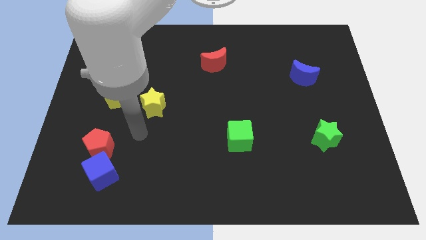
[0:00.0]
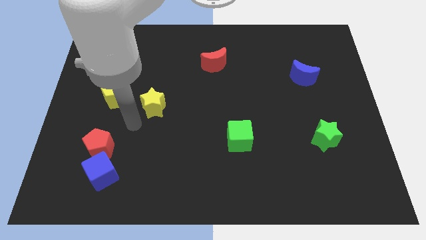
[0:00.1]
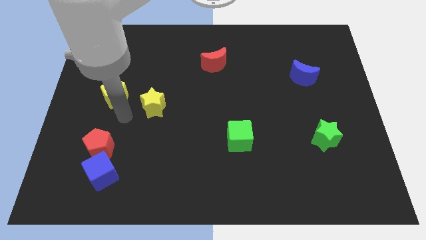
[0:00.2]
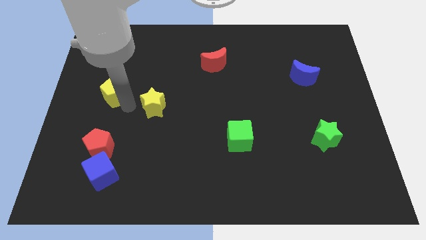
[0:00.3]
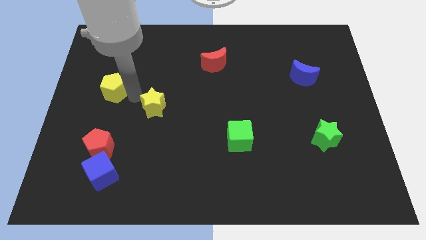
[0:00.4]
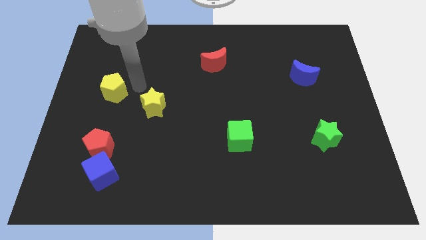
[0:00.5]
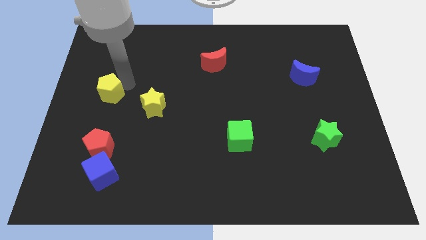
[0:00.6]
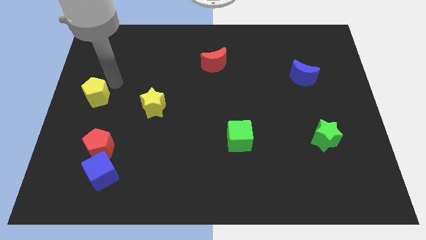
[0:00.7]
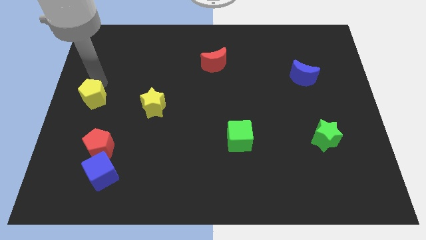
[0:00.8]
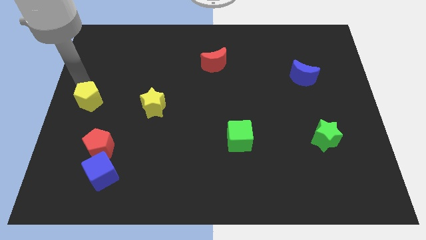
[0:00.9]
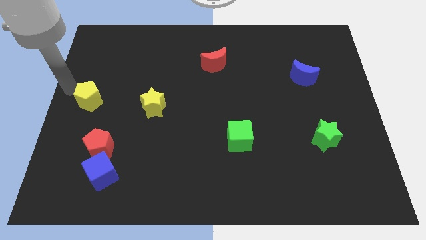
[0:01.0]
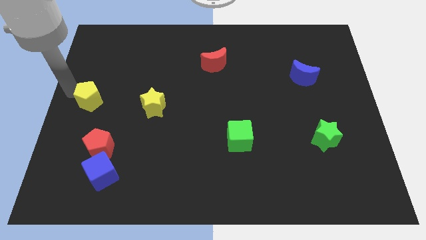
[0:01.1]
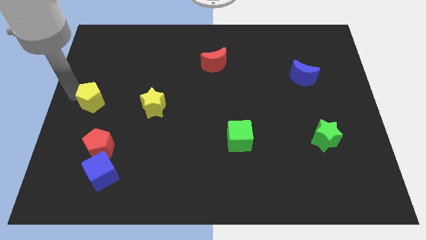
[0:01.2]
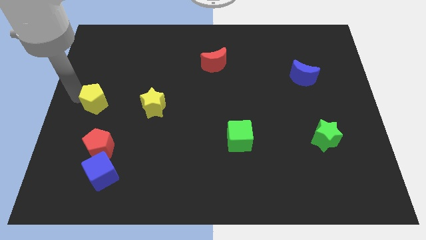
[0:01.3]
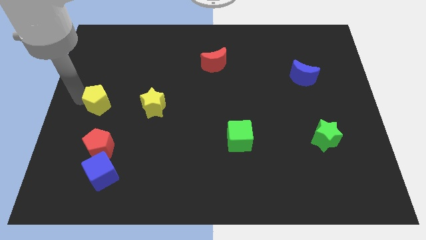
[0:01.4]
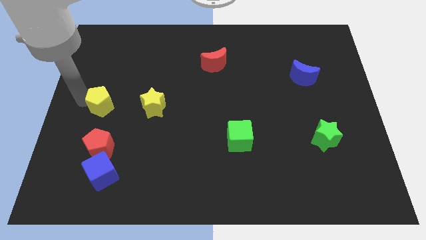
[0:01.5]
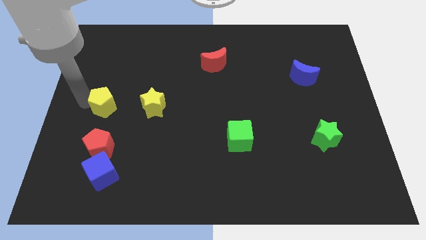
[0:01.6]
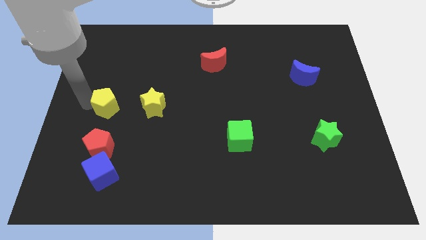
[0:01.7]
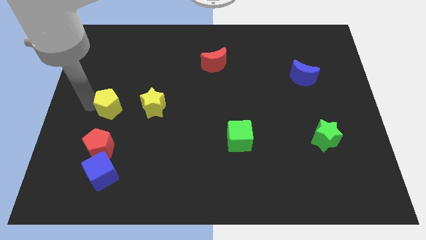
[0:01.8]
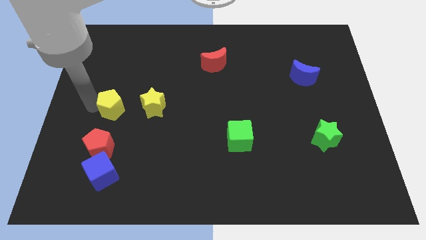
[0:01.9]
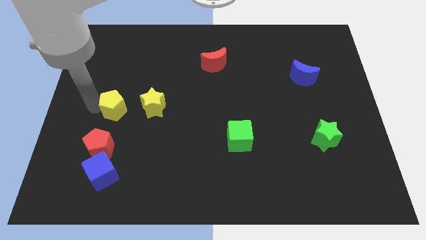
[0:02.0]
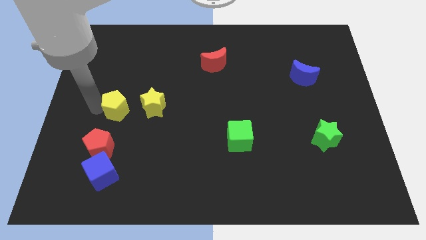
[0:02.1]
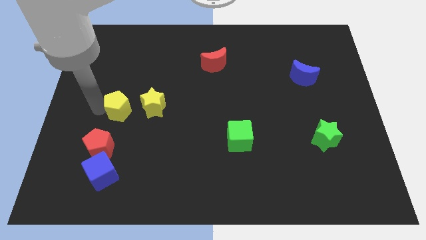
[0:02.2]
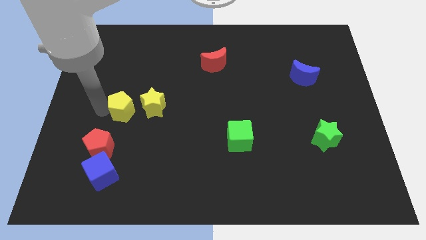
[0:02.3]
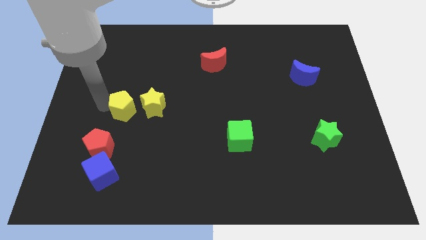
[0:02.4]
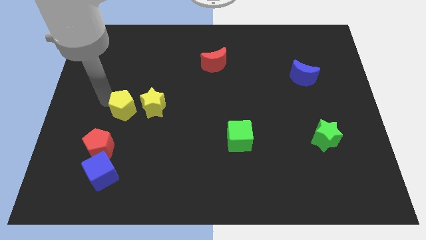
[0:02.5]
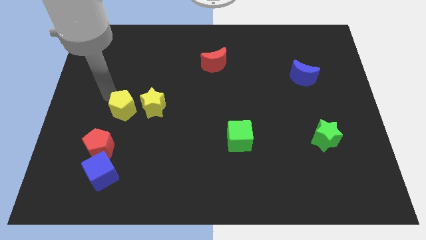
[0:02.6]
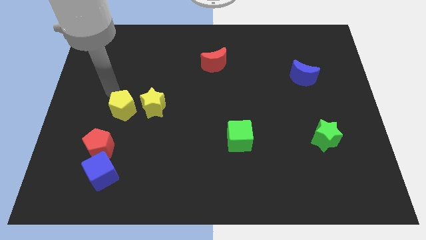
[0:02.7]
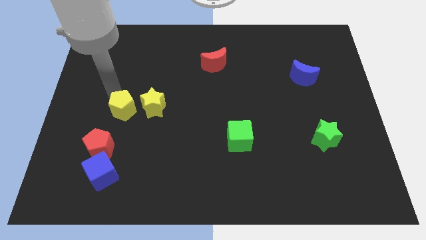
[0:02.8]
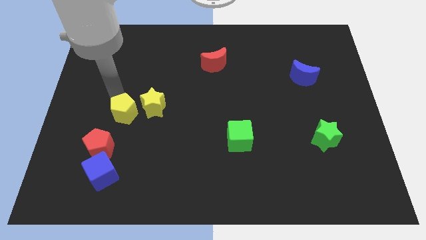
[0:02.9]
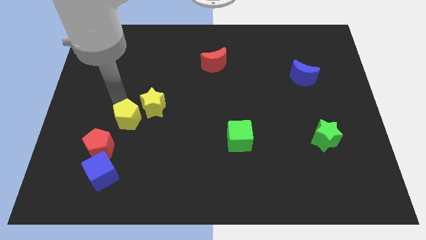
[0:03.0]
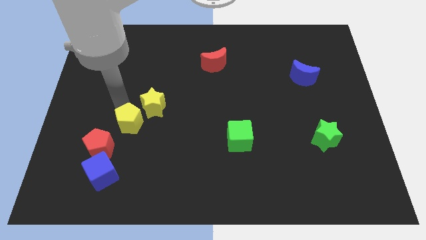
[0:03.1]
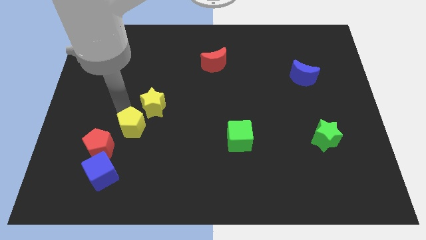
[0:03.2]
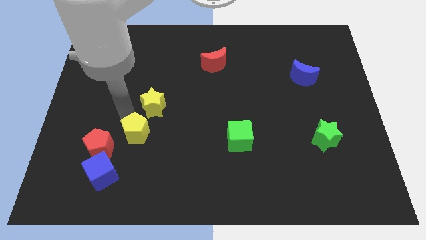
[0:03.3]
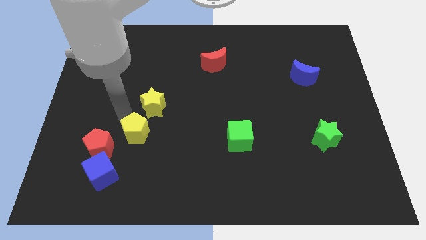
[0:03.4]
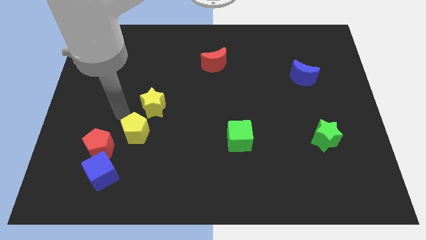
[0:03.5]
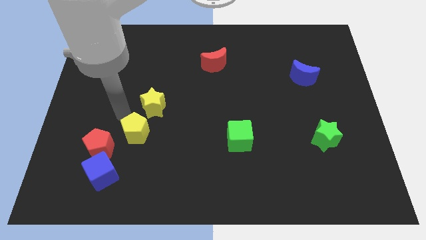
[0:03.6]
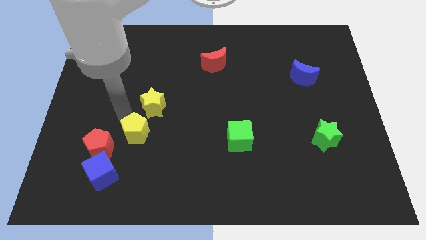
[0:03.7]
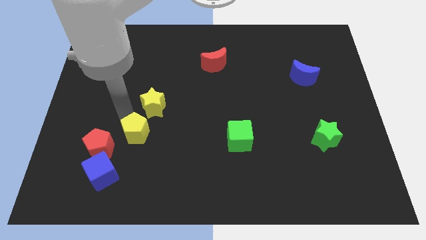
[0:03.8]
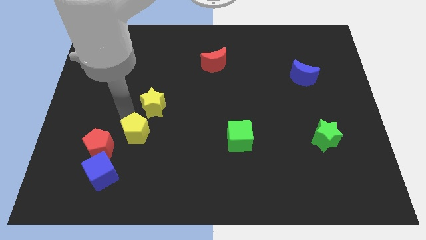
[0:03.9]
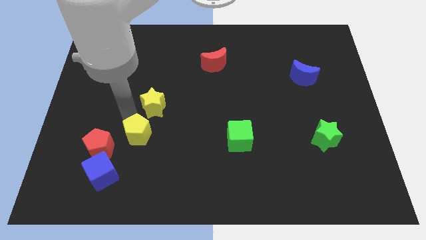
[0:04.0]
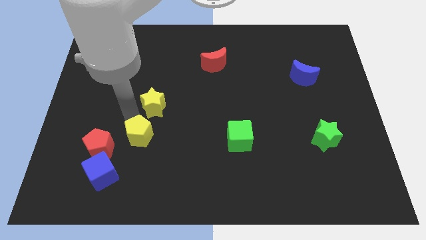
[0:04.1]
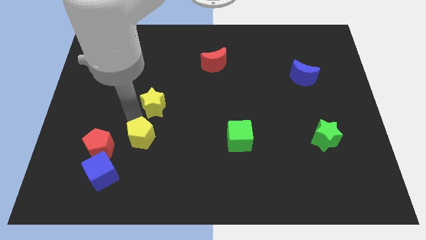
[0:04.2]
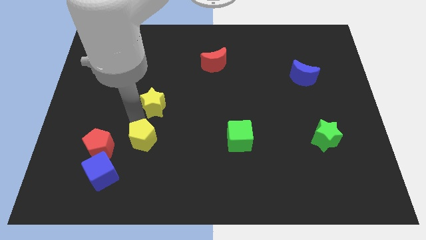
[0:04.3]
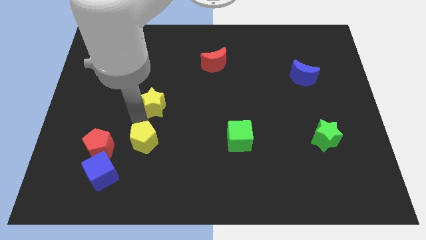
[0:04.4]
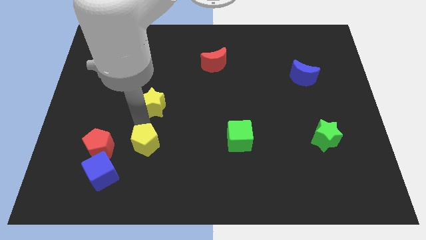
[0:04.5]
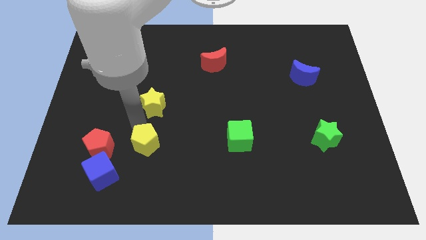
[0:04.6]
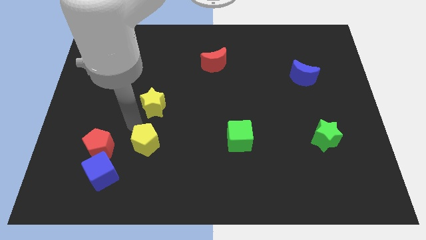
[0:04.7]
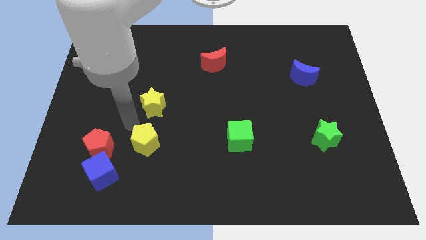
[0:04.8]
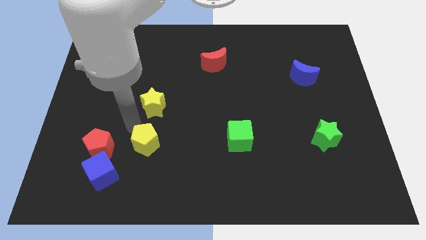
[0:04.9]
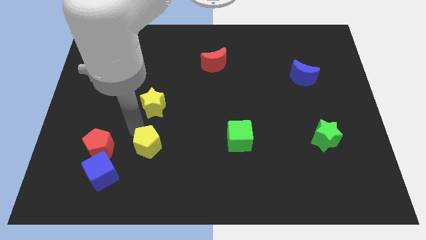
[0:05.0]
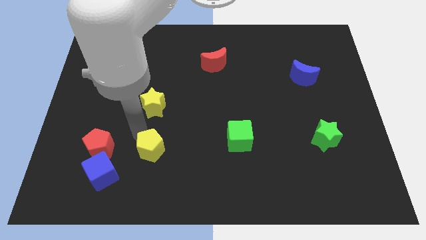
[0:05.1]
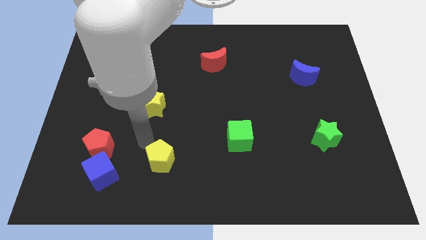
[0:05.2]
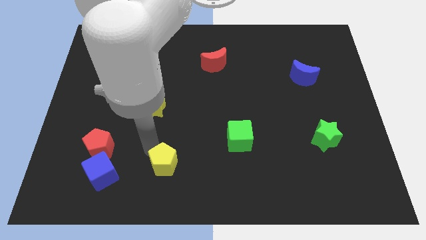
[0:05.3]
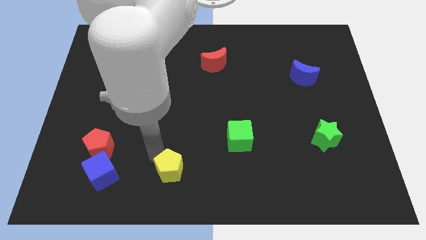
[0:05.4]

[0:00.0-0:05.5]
slide the yellow pentagon to the bottom side

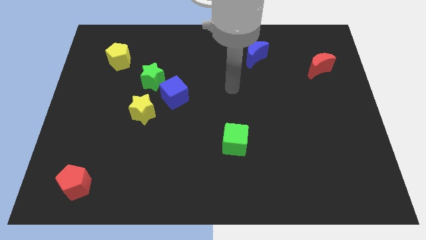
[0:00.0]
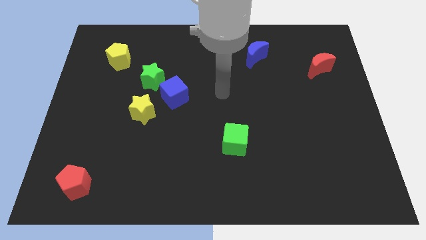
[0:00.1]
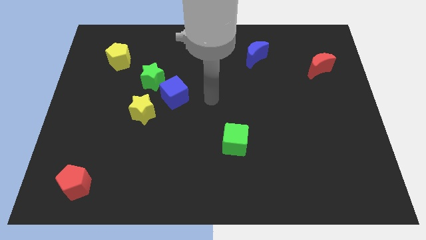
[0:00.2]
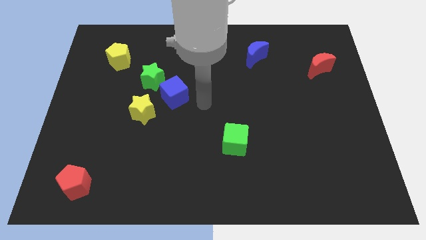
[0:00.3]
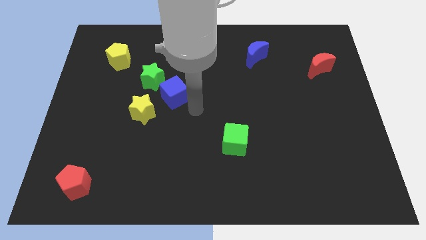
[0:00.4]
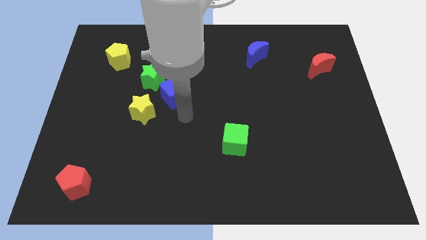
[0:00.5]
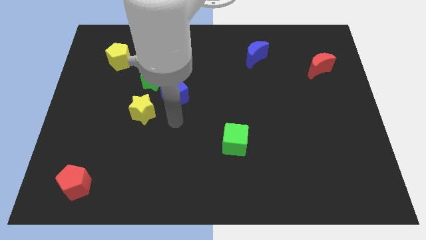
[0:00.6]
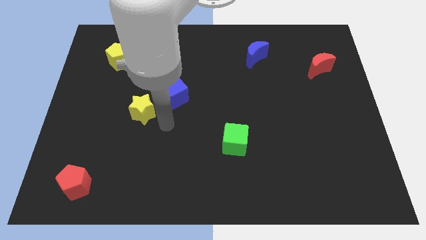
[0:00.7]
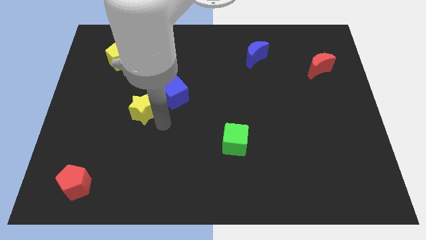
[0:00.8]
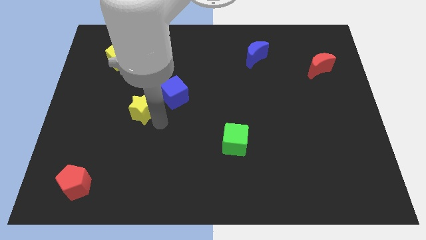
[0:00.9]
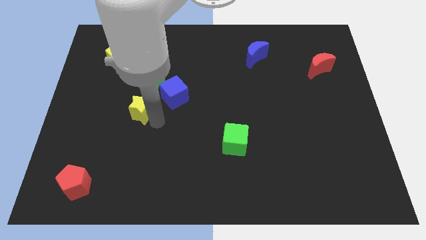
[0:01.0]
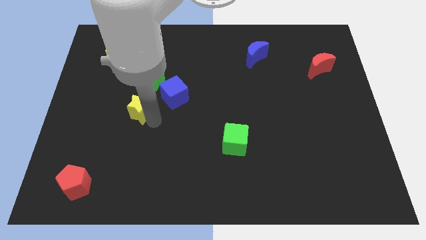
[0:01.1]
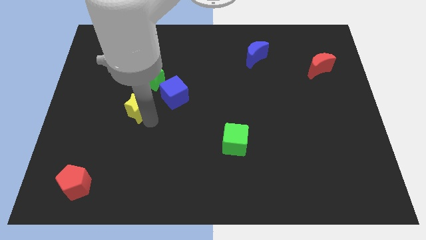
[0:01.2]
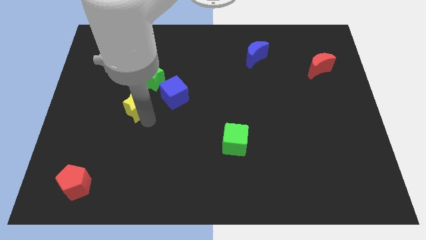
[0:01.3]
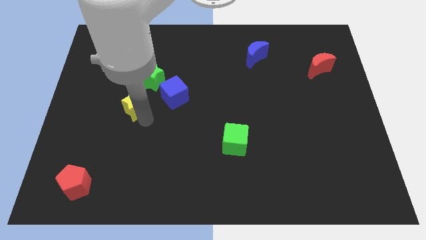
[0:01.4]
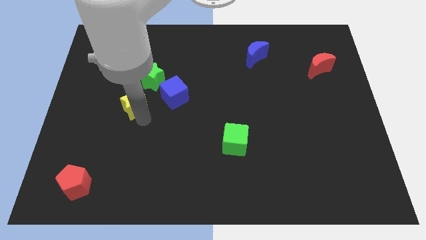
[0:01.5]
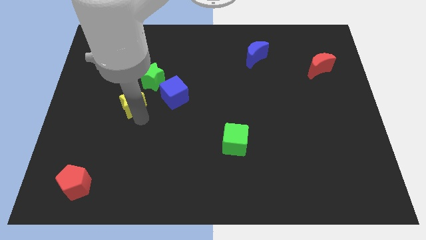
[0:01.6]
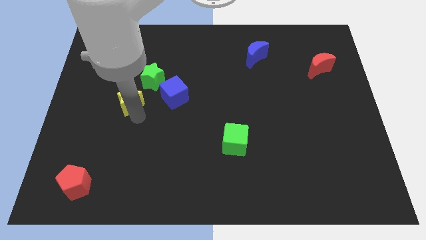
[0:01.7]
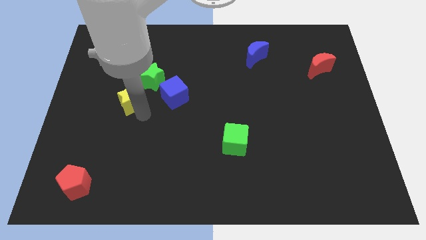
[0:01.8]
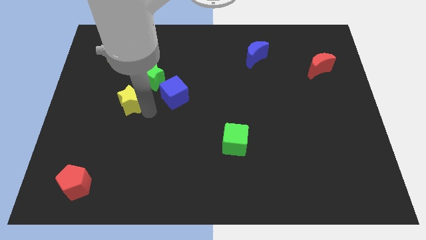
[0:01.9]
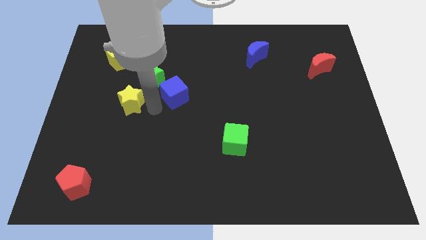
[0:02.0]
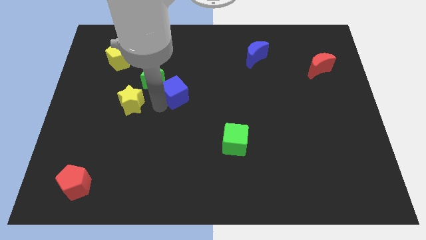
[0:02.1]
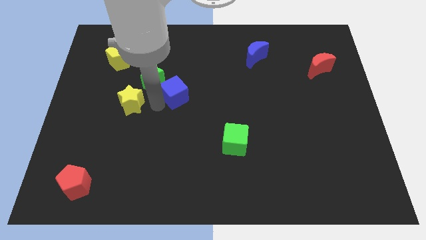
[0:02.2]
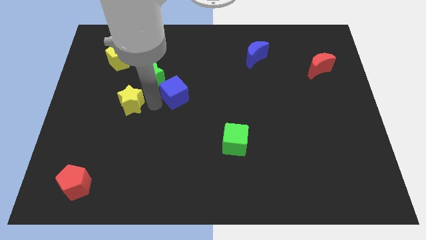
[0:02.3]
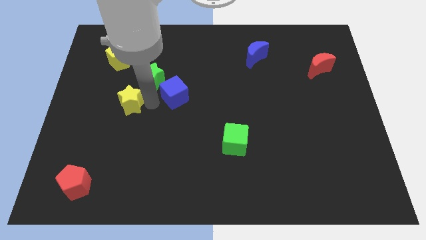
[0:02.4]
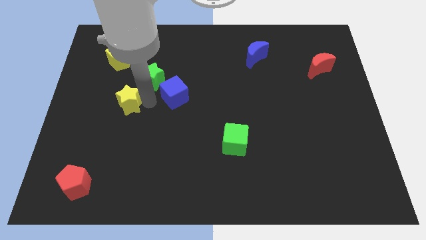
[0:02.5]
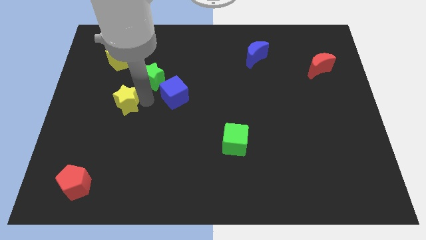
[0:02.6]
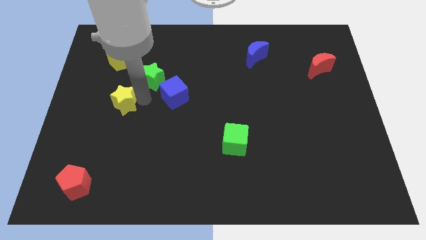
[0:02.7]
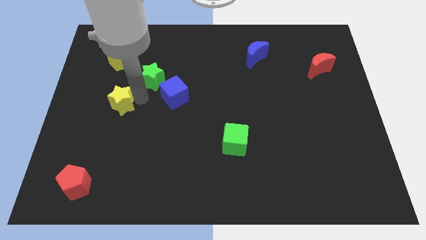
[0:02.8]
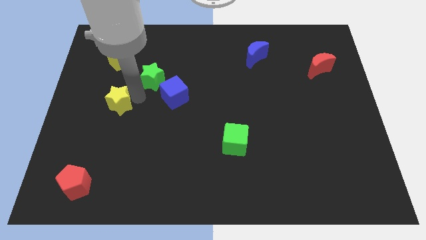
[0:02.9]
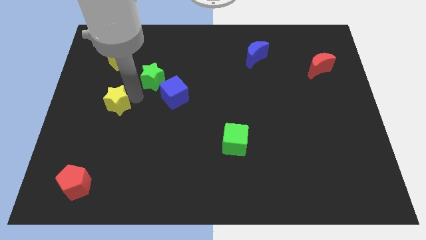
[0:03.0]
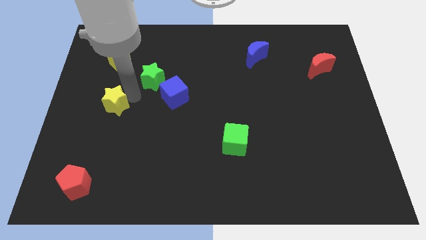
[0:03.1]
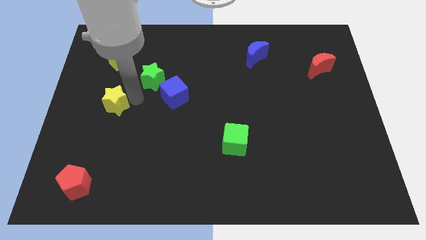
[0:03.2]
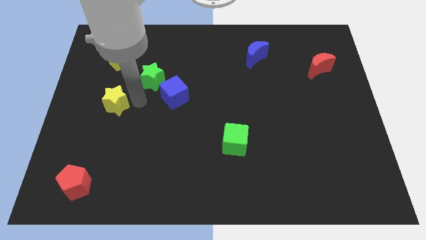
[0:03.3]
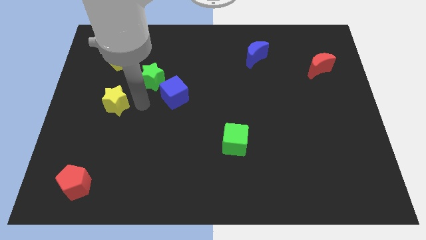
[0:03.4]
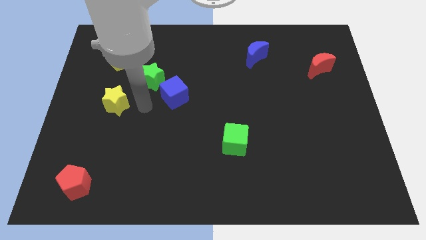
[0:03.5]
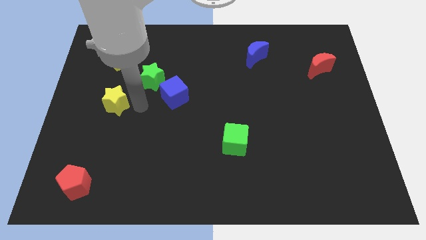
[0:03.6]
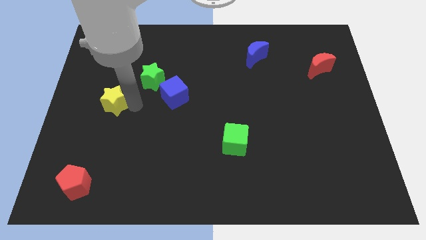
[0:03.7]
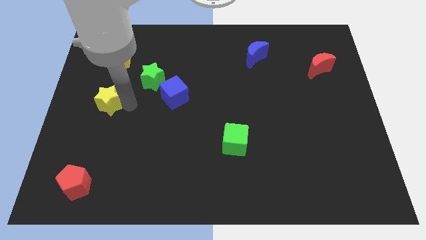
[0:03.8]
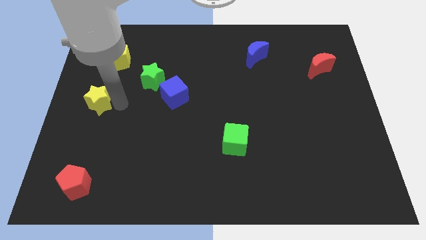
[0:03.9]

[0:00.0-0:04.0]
move the yellow star to the left side
